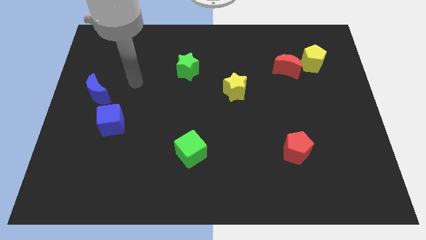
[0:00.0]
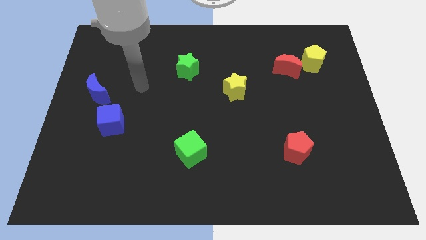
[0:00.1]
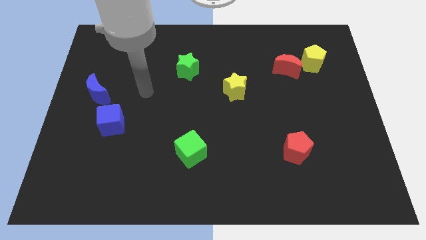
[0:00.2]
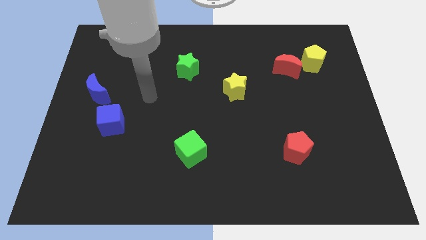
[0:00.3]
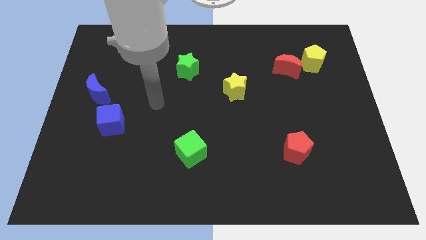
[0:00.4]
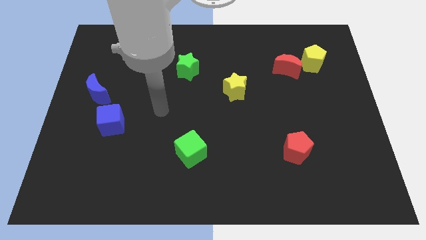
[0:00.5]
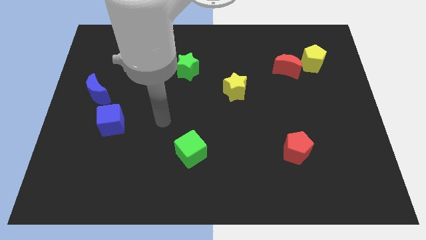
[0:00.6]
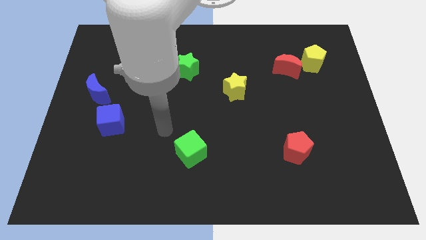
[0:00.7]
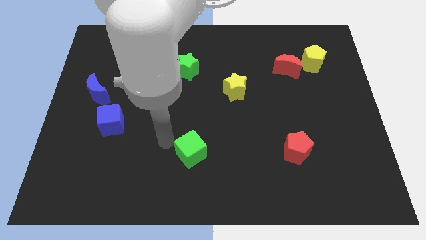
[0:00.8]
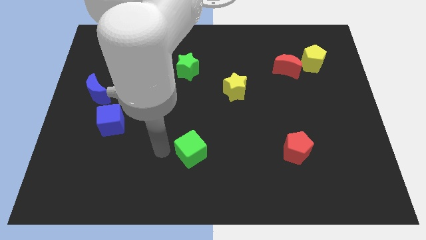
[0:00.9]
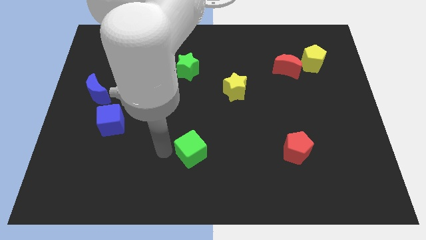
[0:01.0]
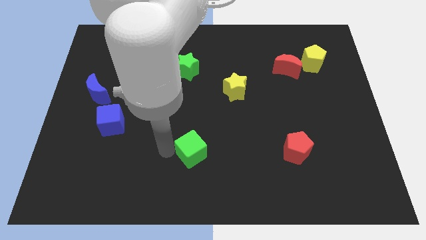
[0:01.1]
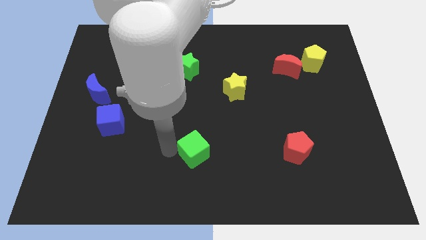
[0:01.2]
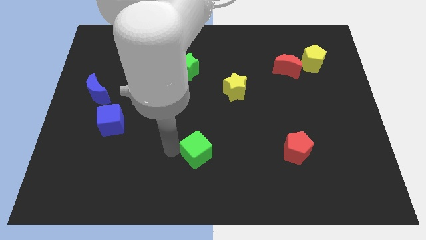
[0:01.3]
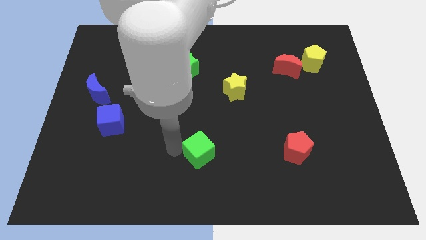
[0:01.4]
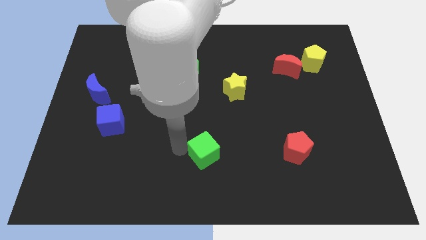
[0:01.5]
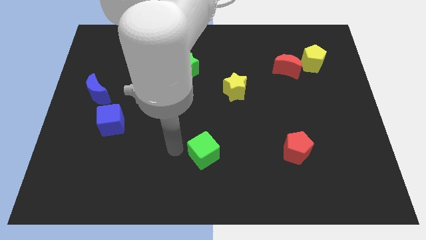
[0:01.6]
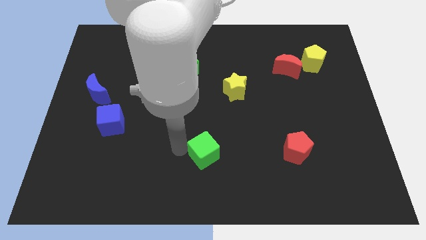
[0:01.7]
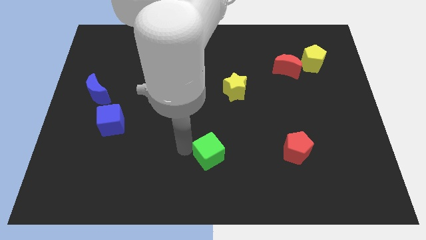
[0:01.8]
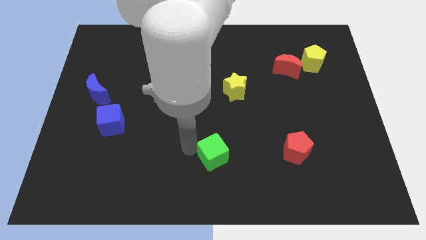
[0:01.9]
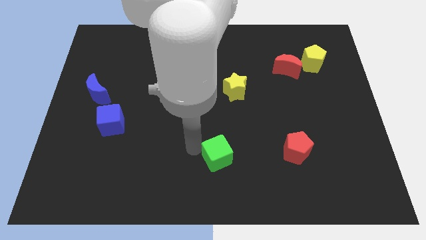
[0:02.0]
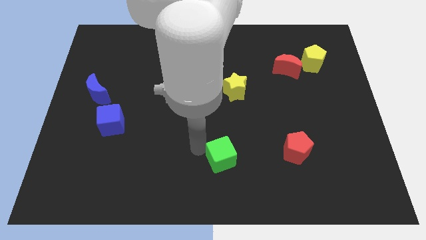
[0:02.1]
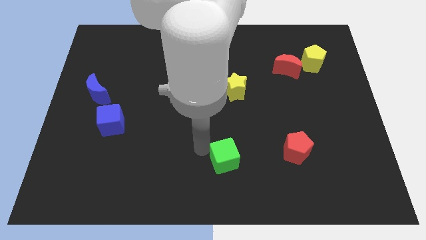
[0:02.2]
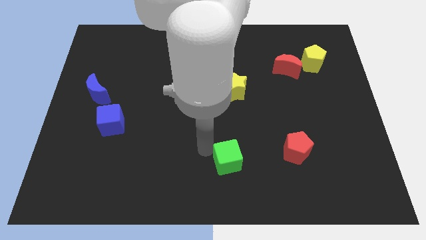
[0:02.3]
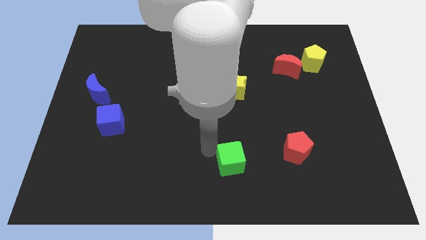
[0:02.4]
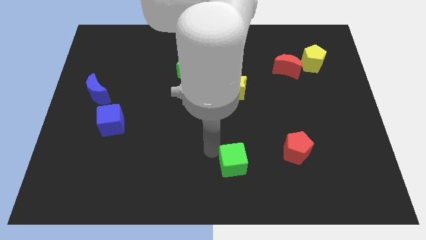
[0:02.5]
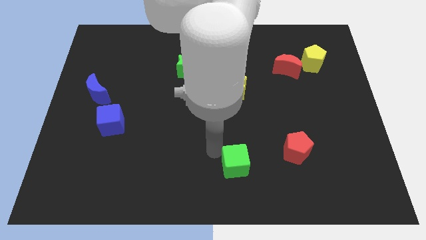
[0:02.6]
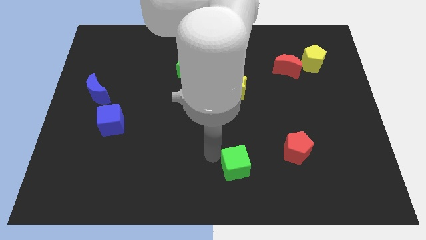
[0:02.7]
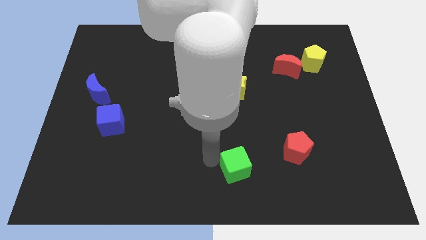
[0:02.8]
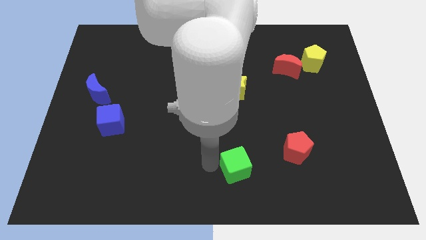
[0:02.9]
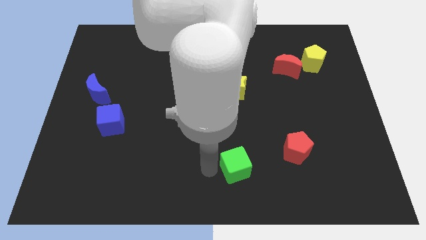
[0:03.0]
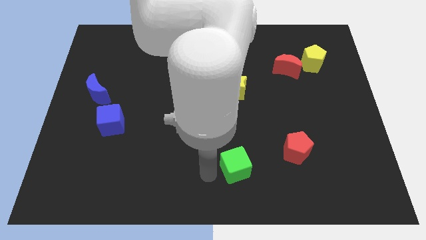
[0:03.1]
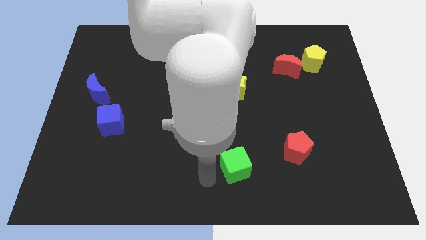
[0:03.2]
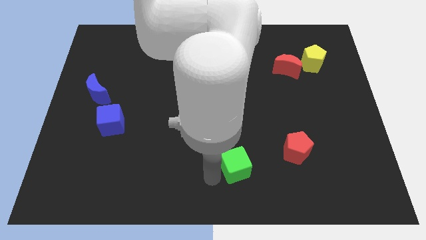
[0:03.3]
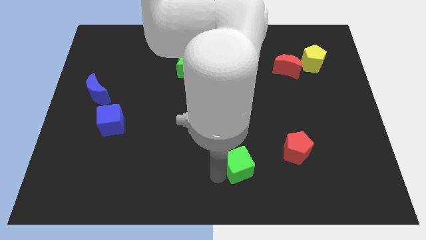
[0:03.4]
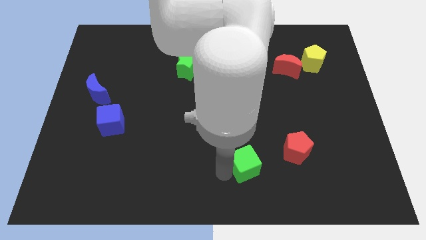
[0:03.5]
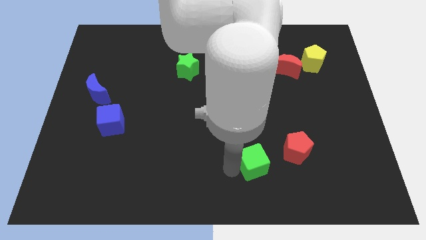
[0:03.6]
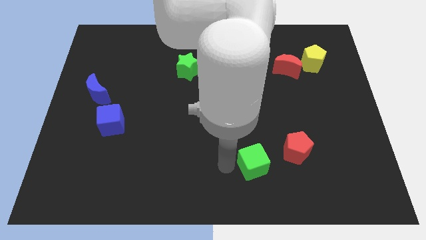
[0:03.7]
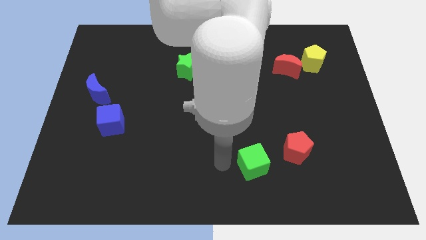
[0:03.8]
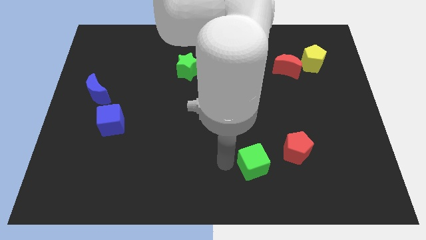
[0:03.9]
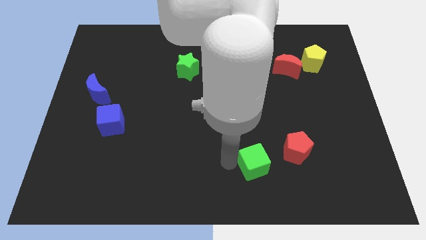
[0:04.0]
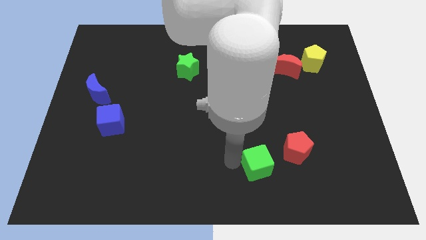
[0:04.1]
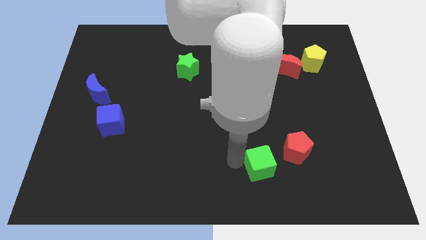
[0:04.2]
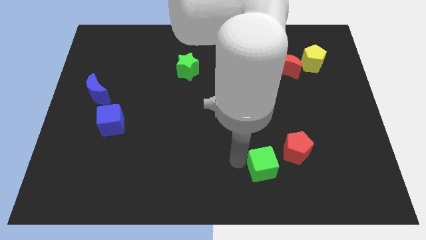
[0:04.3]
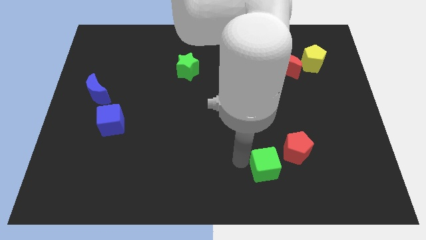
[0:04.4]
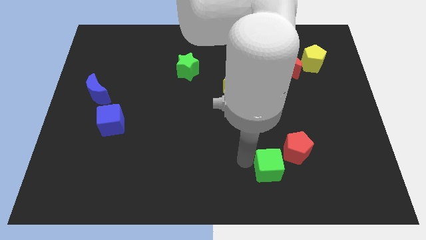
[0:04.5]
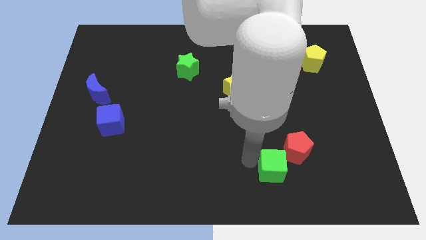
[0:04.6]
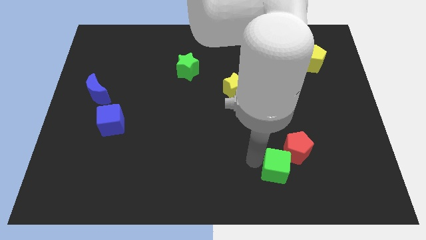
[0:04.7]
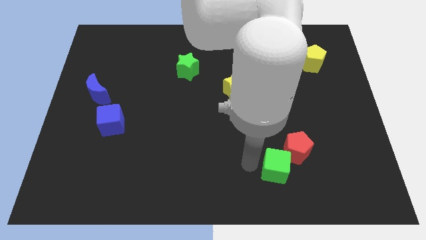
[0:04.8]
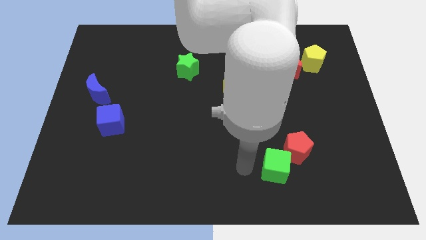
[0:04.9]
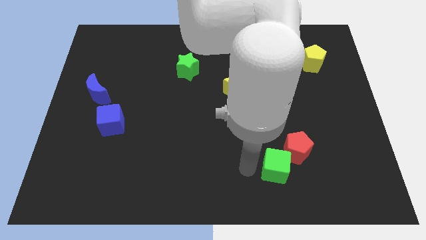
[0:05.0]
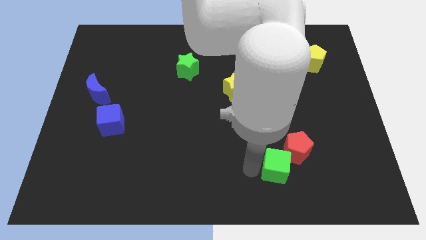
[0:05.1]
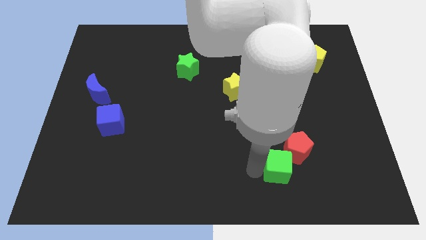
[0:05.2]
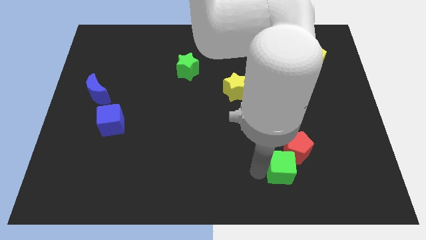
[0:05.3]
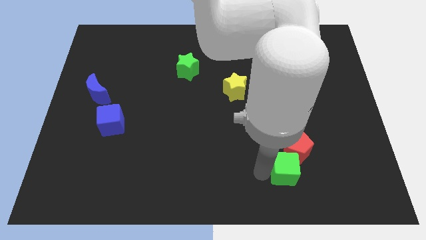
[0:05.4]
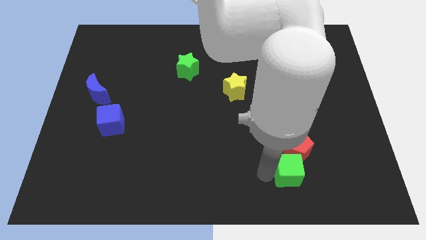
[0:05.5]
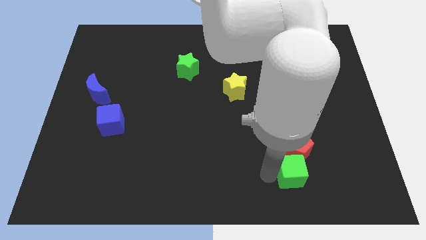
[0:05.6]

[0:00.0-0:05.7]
move the green cube right

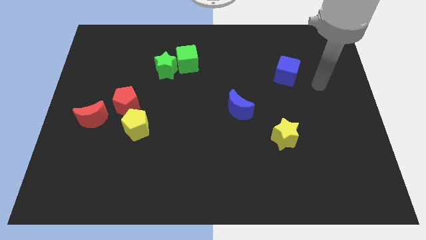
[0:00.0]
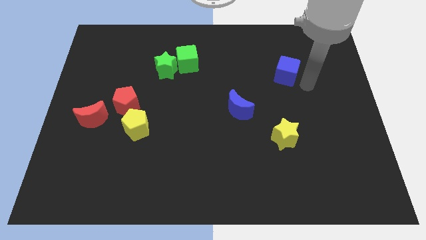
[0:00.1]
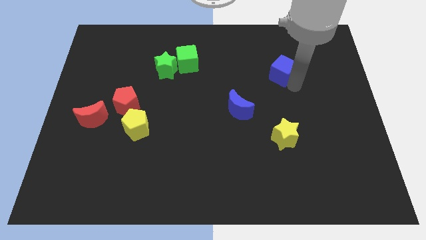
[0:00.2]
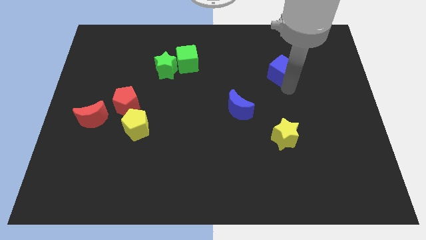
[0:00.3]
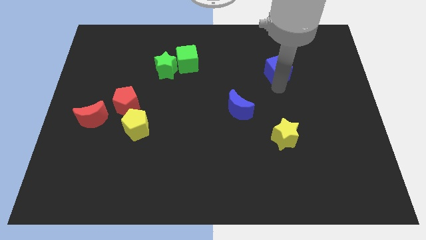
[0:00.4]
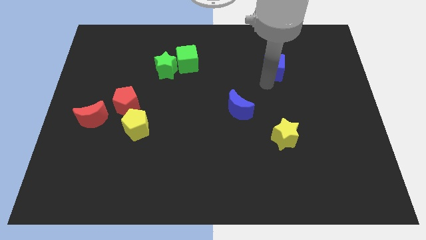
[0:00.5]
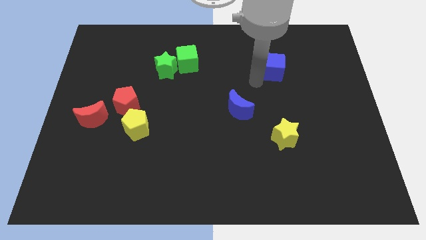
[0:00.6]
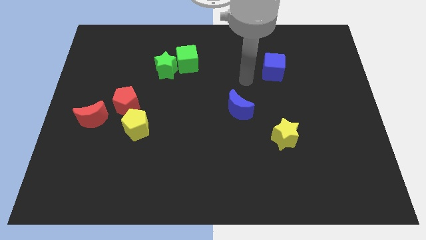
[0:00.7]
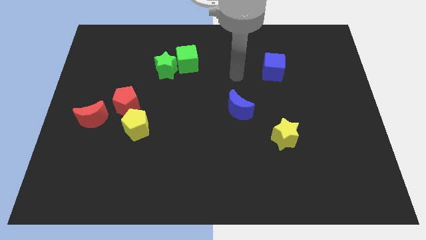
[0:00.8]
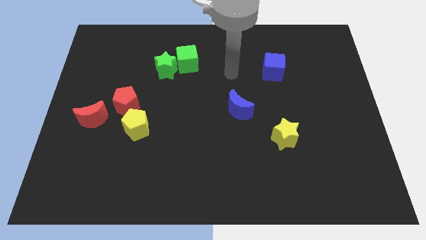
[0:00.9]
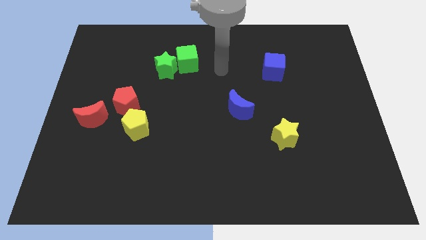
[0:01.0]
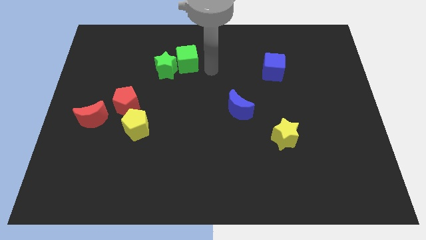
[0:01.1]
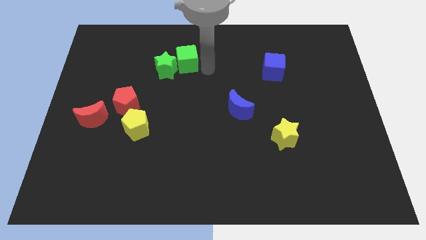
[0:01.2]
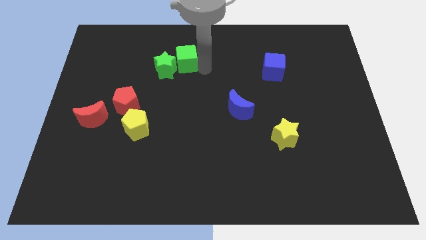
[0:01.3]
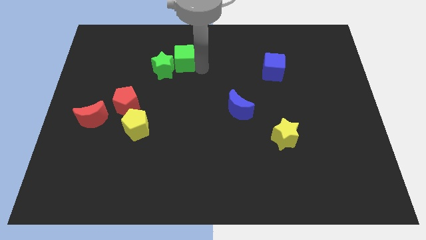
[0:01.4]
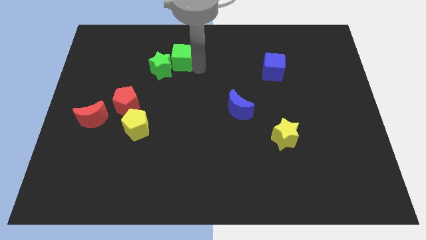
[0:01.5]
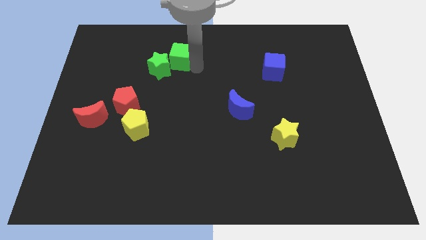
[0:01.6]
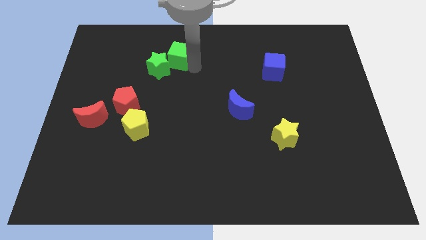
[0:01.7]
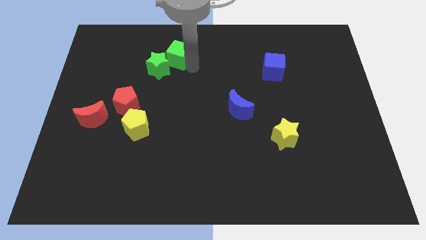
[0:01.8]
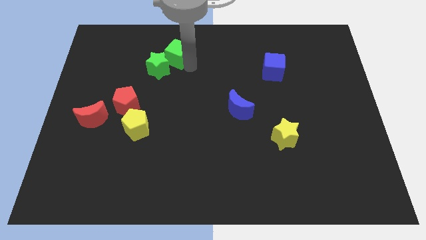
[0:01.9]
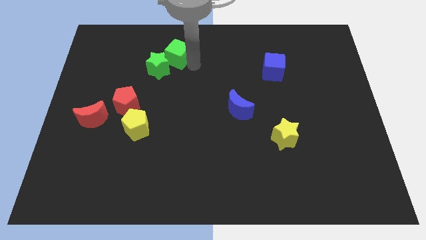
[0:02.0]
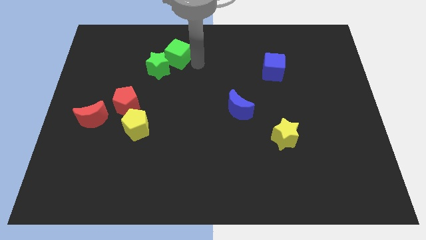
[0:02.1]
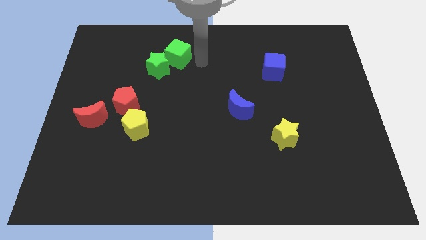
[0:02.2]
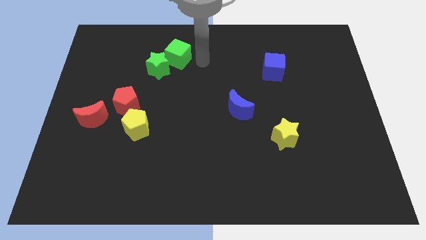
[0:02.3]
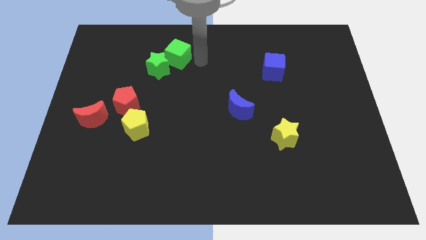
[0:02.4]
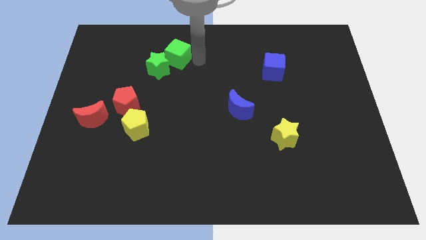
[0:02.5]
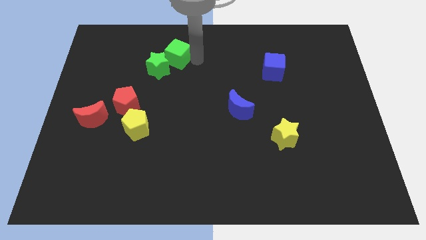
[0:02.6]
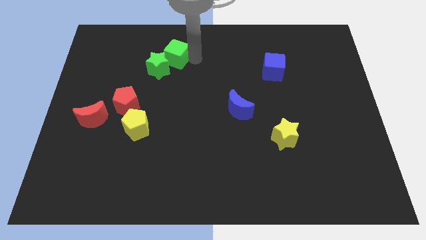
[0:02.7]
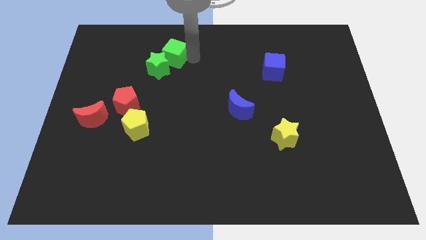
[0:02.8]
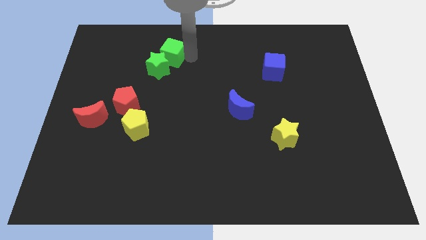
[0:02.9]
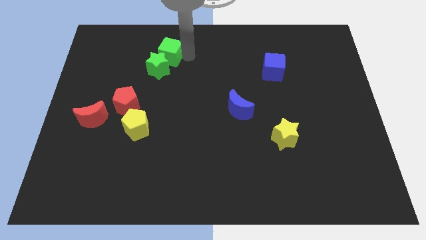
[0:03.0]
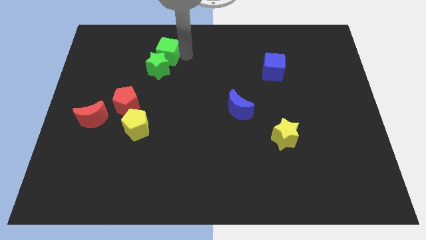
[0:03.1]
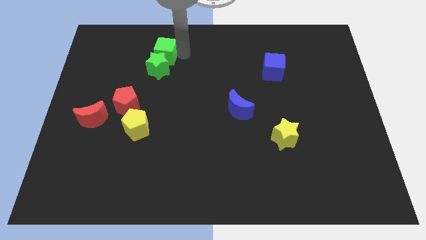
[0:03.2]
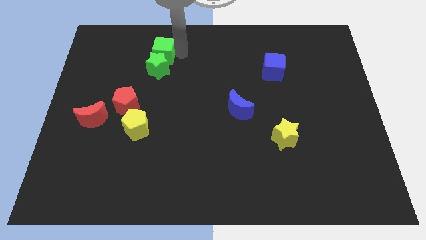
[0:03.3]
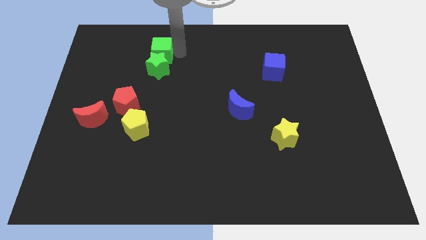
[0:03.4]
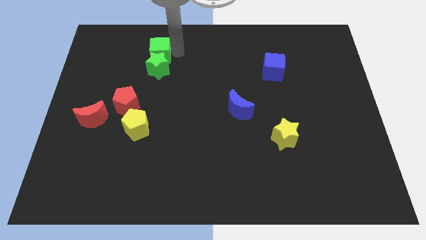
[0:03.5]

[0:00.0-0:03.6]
slide the green cube a little bit to the left
